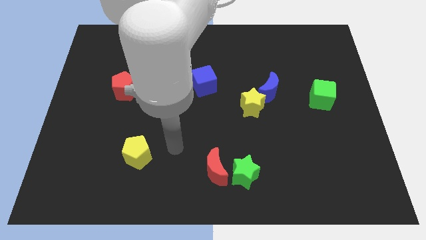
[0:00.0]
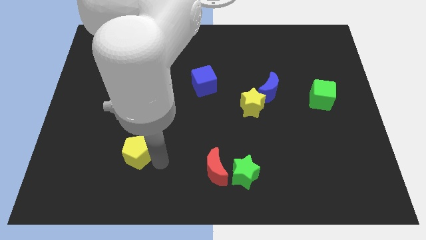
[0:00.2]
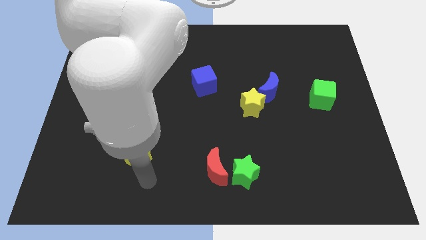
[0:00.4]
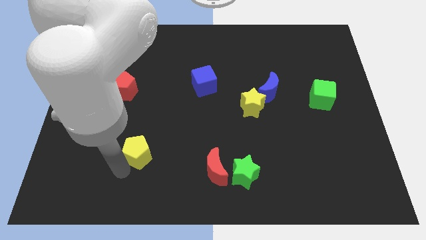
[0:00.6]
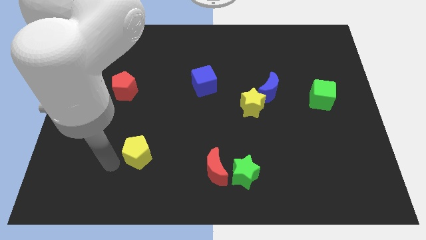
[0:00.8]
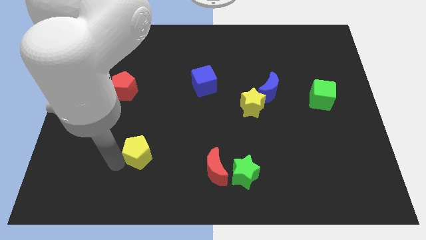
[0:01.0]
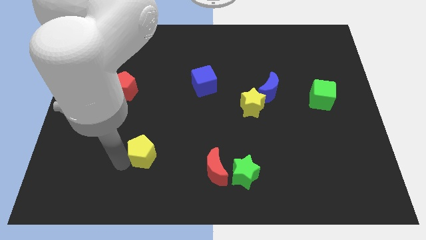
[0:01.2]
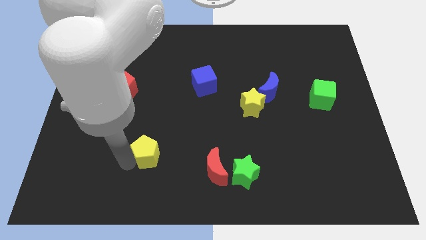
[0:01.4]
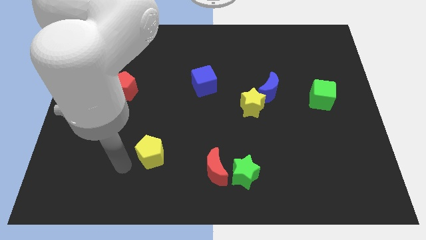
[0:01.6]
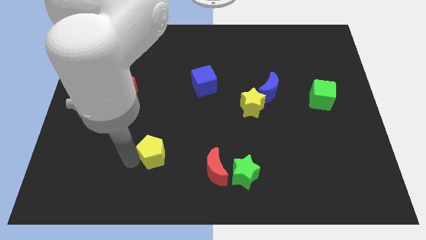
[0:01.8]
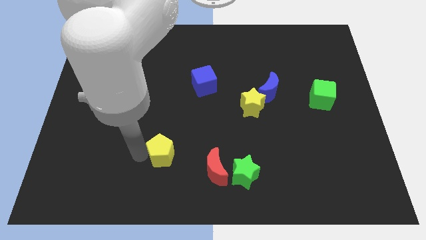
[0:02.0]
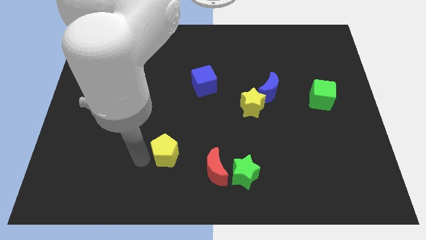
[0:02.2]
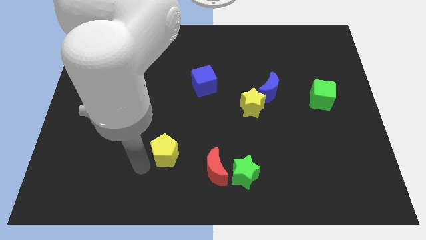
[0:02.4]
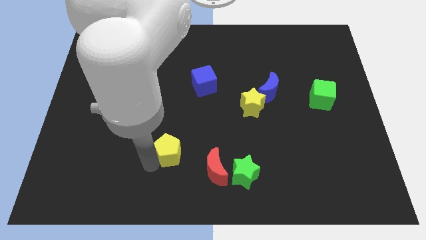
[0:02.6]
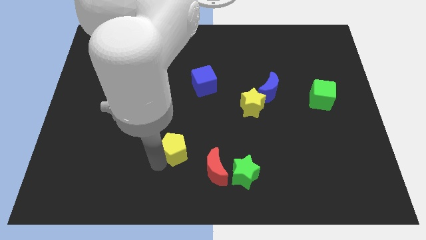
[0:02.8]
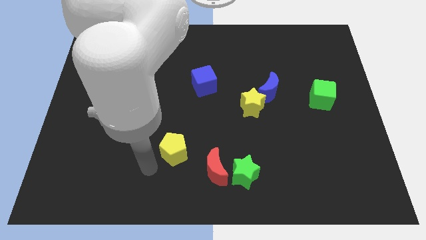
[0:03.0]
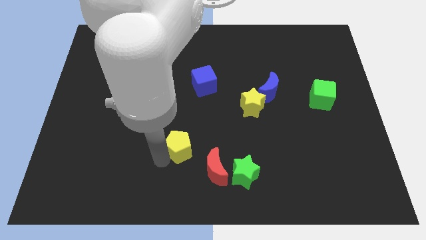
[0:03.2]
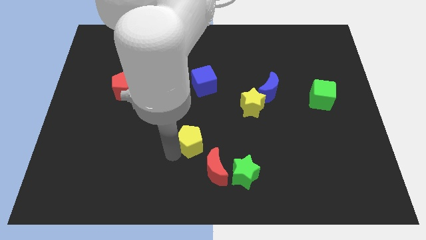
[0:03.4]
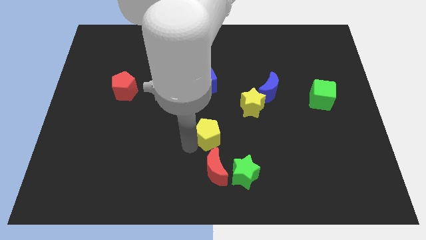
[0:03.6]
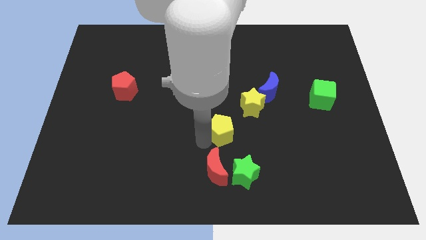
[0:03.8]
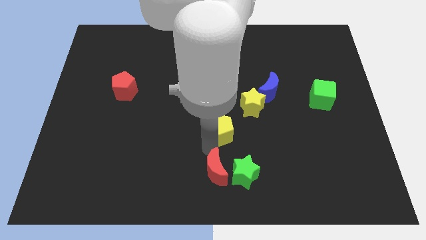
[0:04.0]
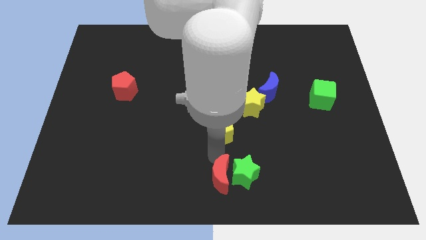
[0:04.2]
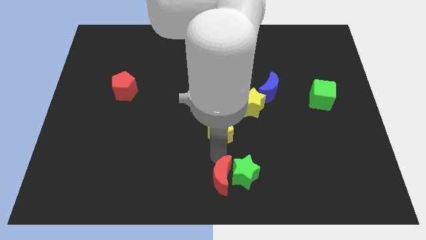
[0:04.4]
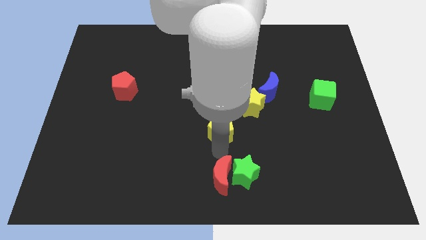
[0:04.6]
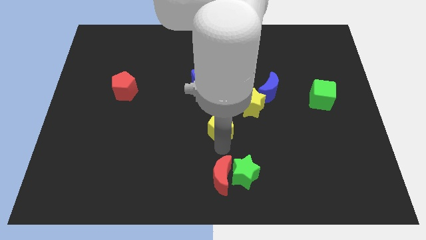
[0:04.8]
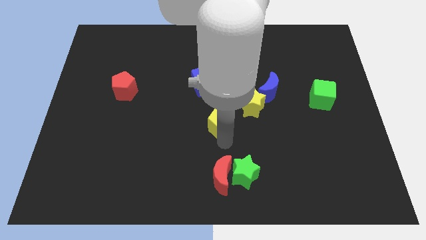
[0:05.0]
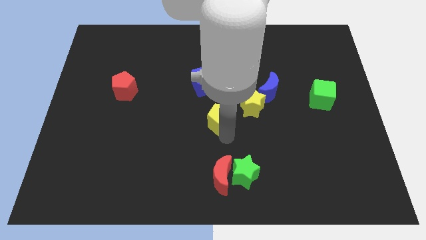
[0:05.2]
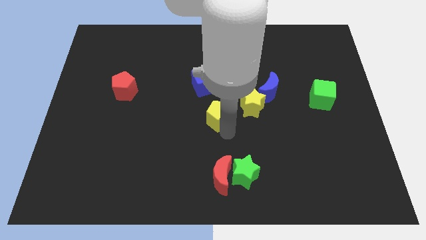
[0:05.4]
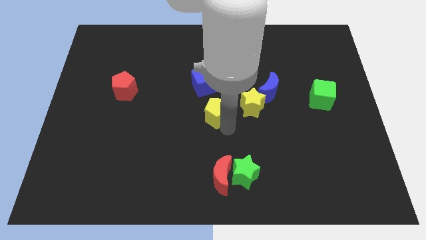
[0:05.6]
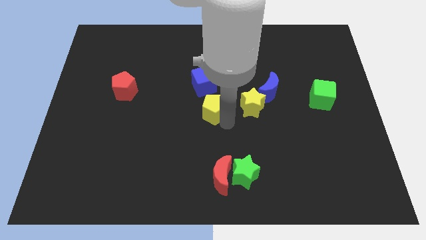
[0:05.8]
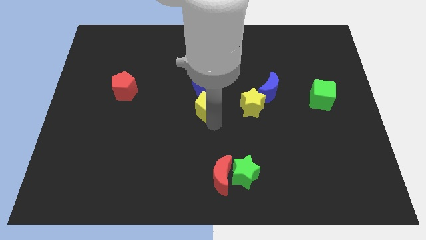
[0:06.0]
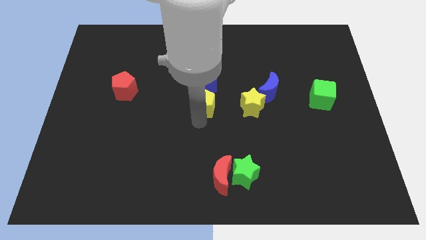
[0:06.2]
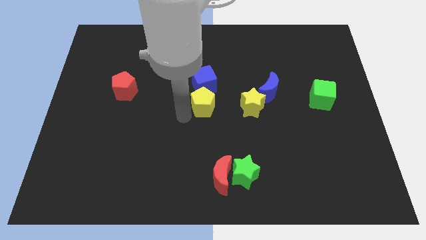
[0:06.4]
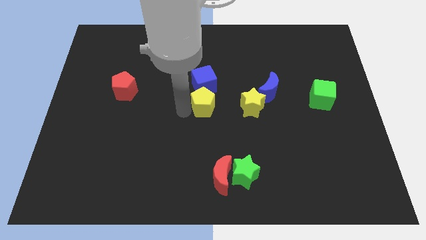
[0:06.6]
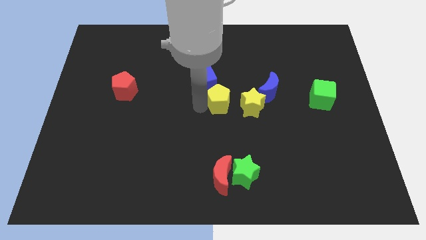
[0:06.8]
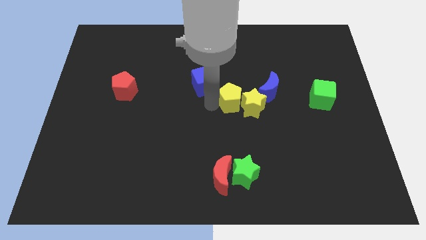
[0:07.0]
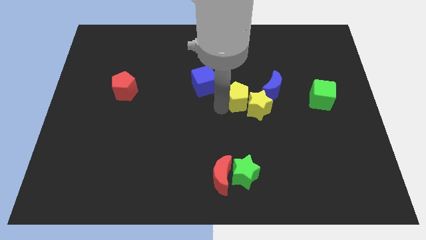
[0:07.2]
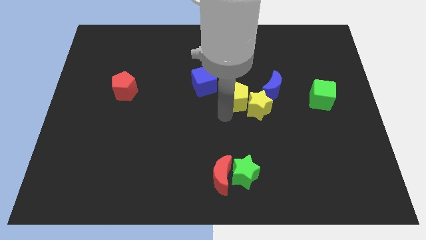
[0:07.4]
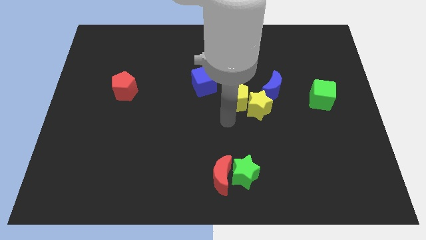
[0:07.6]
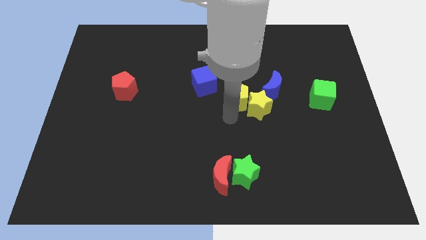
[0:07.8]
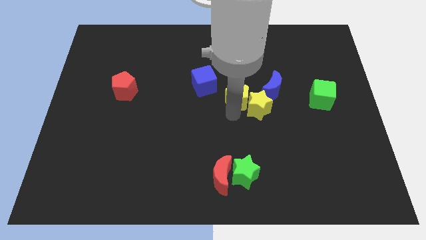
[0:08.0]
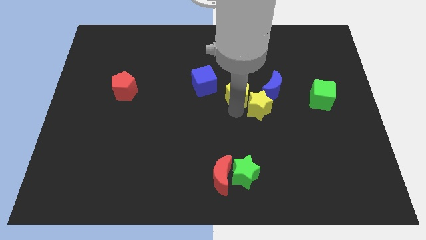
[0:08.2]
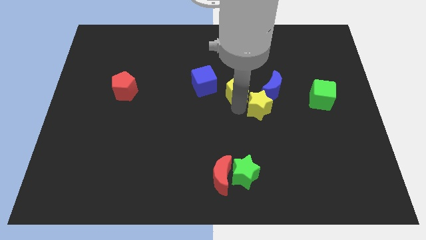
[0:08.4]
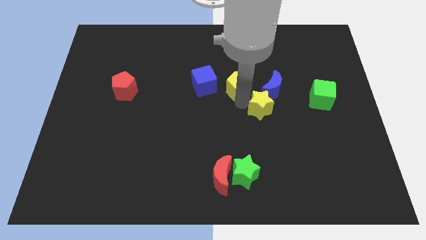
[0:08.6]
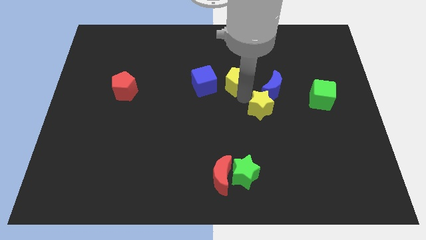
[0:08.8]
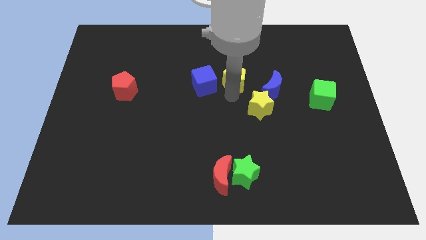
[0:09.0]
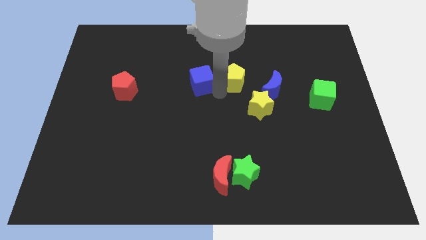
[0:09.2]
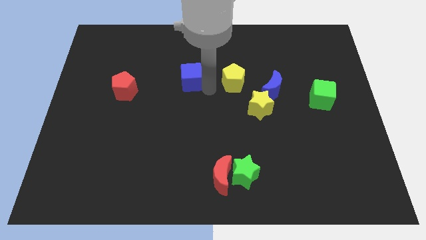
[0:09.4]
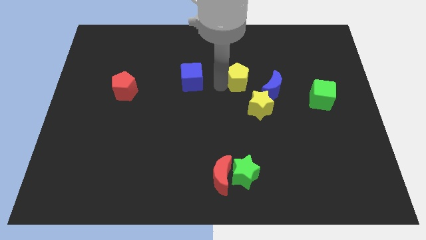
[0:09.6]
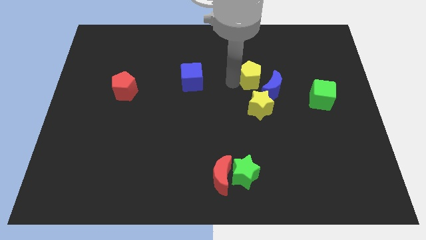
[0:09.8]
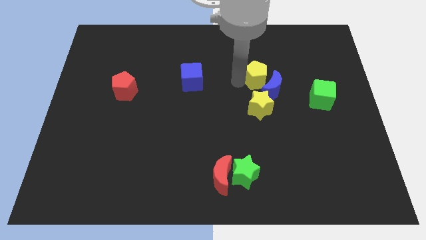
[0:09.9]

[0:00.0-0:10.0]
move the yellow pentagon to the top of the blue moon

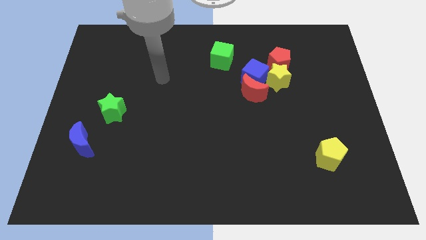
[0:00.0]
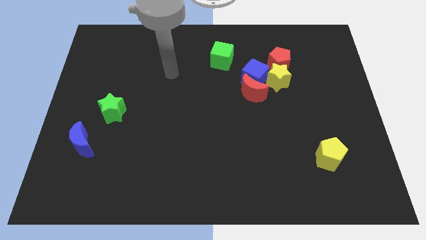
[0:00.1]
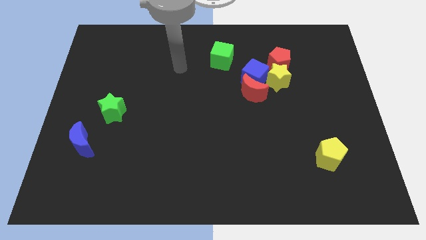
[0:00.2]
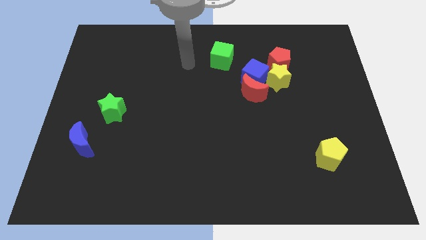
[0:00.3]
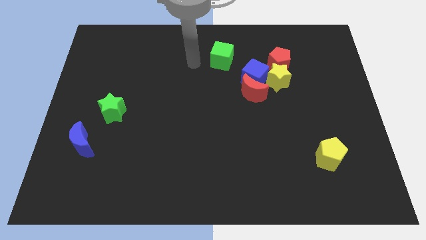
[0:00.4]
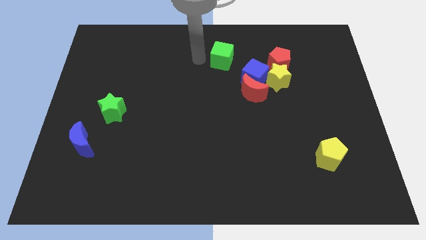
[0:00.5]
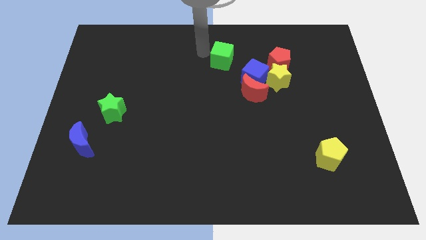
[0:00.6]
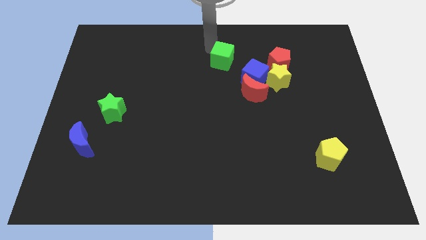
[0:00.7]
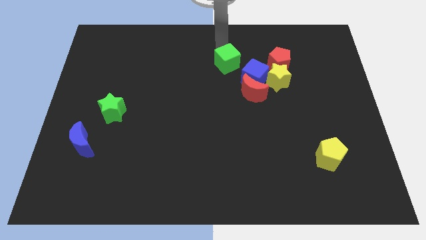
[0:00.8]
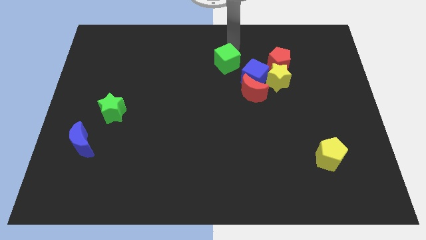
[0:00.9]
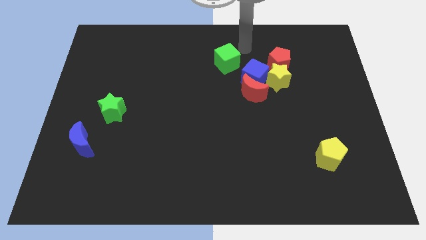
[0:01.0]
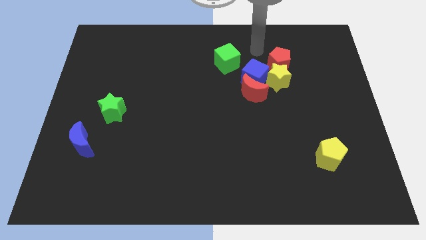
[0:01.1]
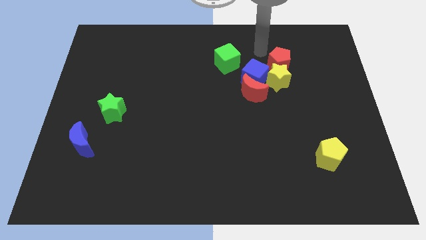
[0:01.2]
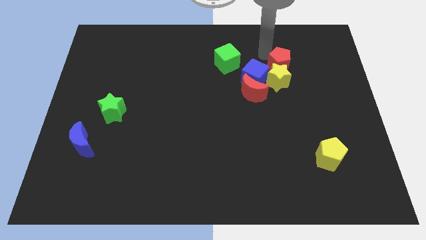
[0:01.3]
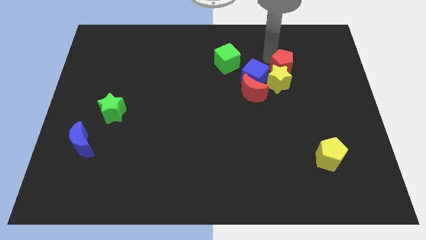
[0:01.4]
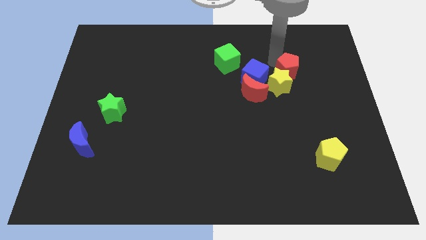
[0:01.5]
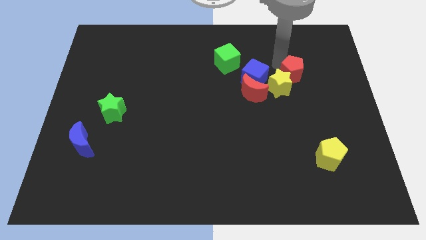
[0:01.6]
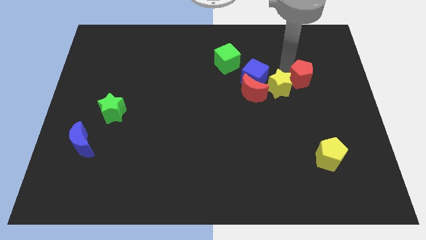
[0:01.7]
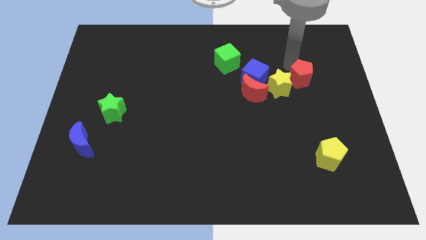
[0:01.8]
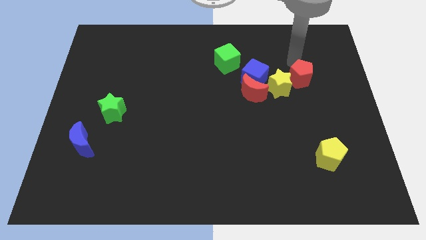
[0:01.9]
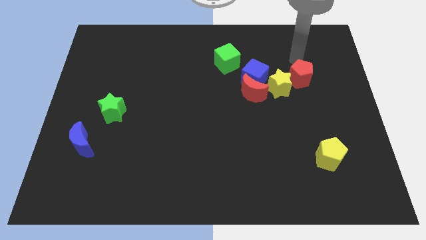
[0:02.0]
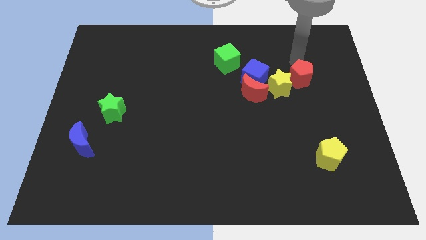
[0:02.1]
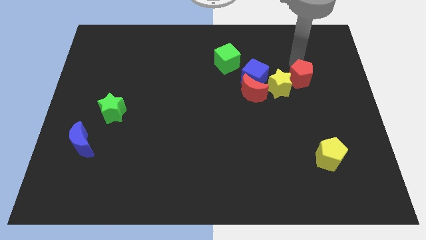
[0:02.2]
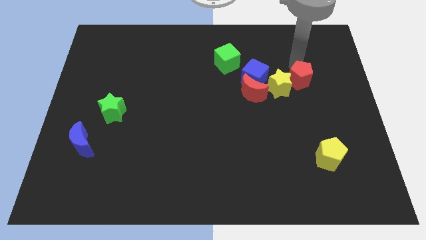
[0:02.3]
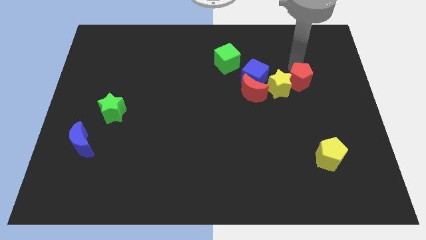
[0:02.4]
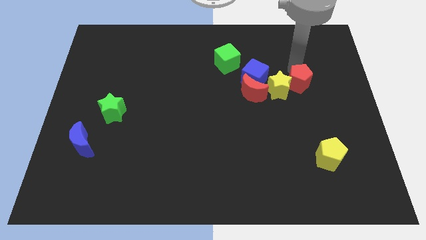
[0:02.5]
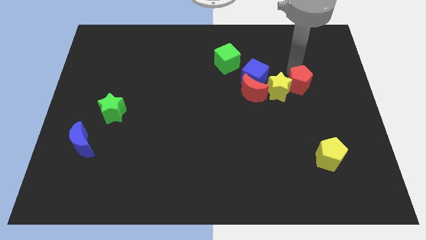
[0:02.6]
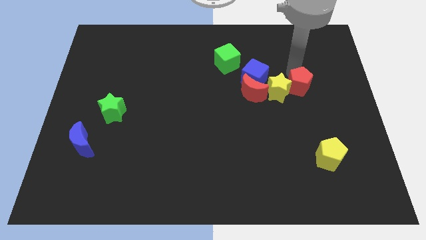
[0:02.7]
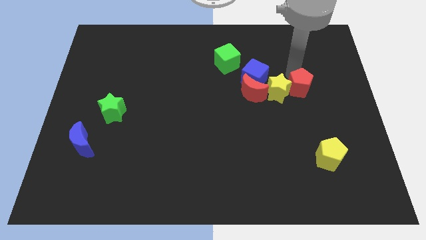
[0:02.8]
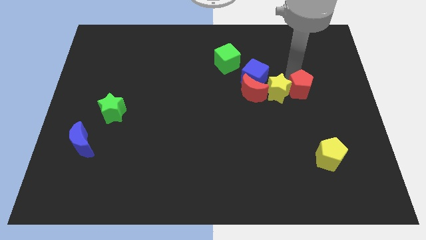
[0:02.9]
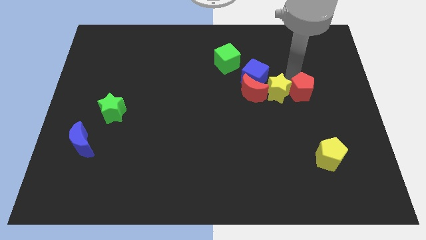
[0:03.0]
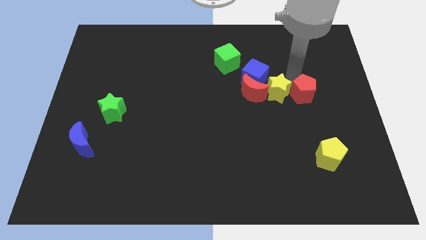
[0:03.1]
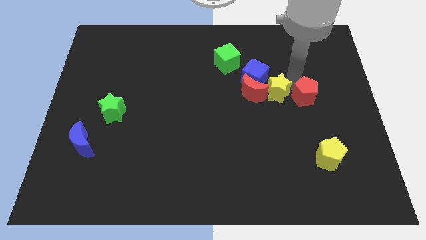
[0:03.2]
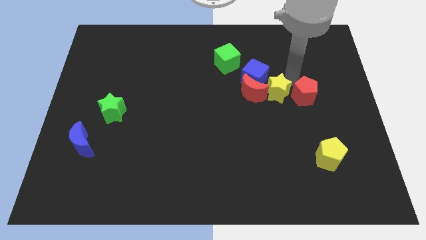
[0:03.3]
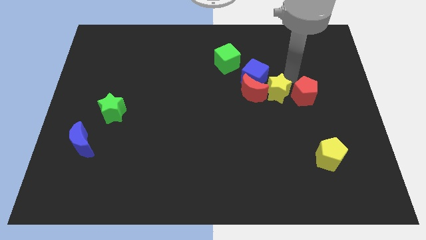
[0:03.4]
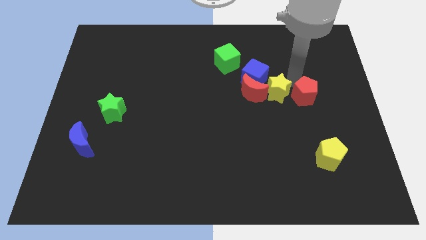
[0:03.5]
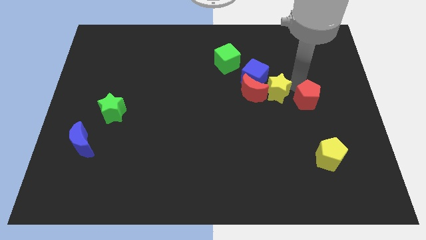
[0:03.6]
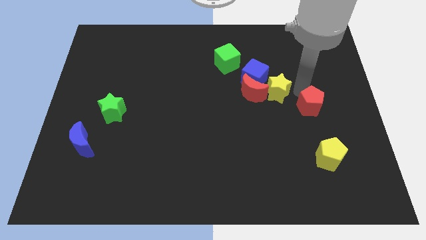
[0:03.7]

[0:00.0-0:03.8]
move the red pentagon to the top of the yellow pentagon
